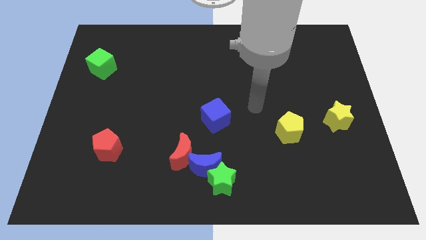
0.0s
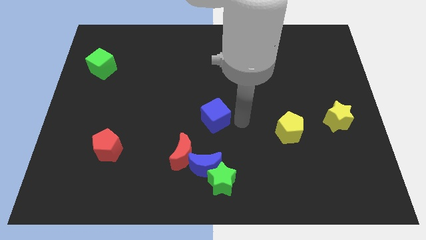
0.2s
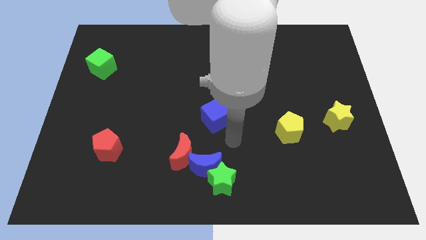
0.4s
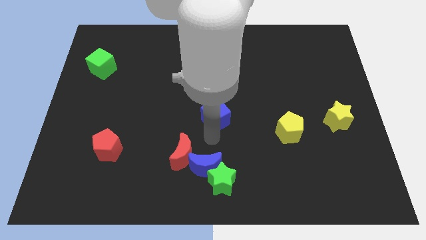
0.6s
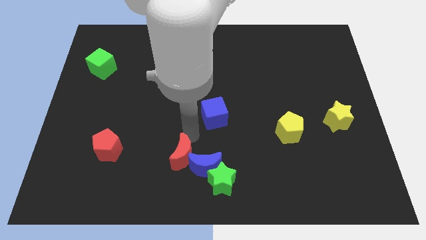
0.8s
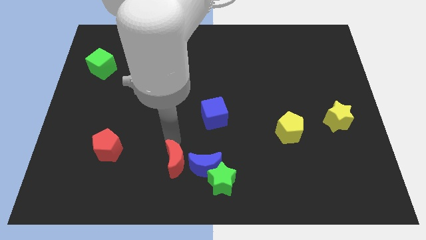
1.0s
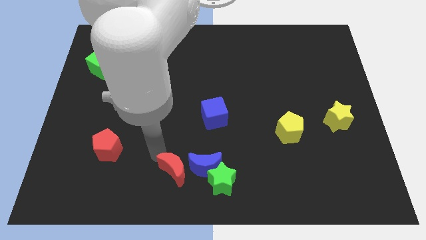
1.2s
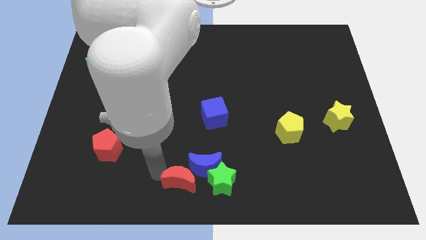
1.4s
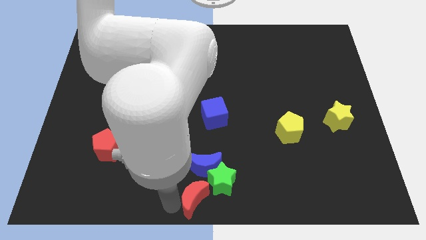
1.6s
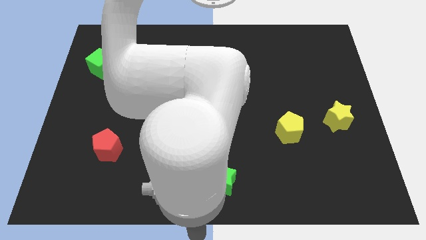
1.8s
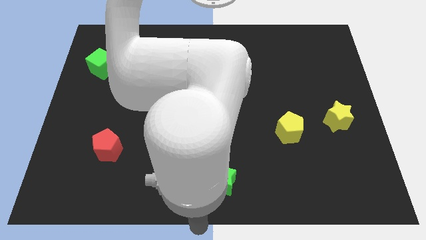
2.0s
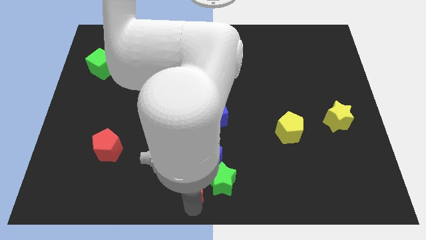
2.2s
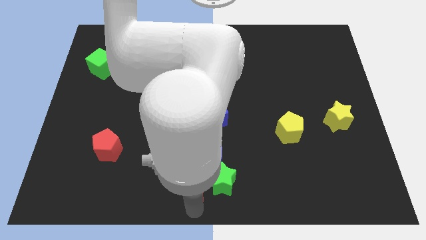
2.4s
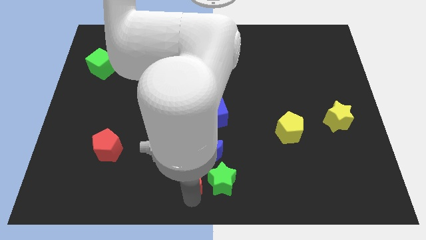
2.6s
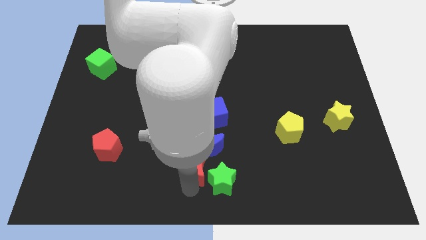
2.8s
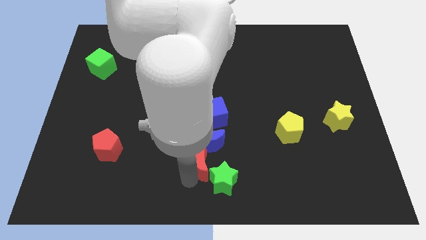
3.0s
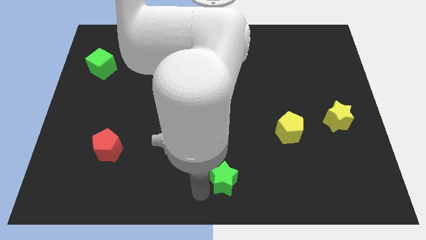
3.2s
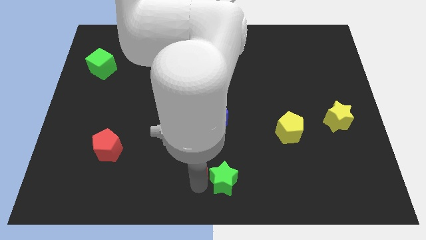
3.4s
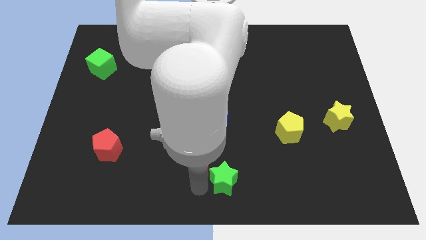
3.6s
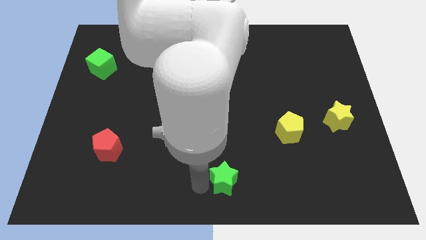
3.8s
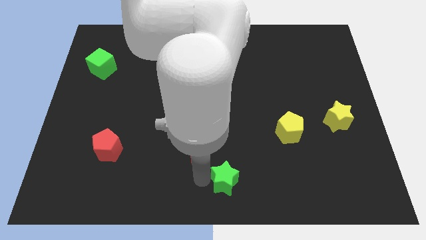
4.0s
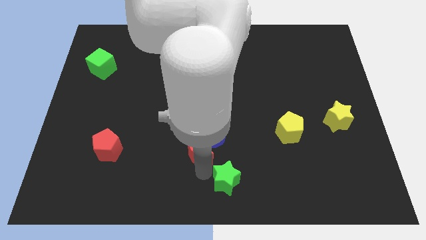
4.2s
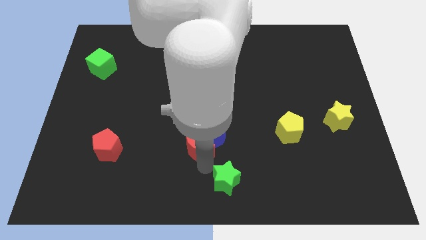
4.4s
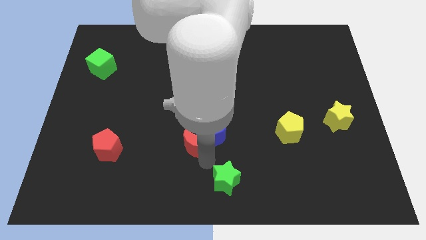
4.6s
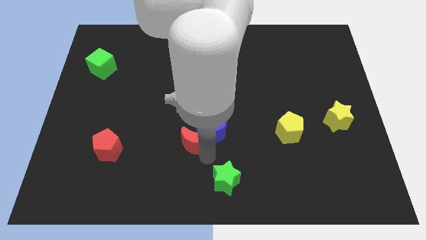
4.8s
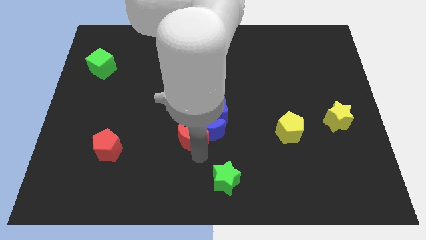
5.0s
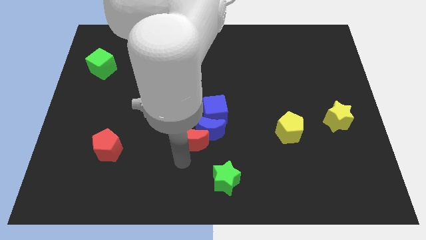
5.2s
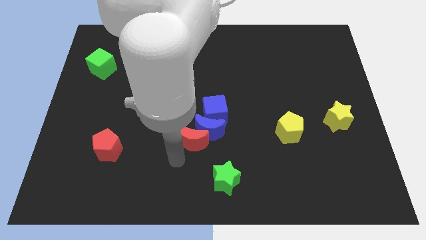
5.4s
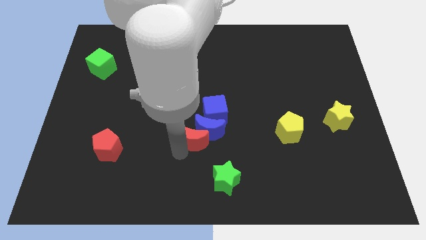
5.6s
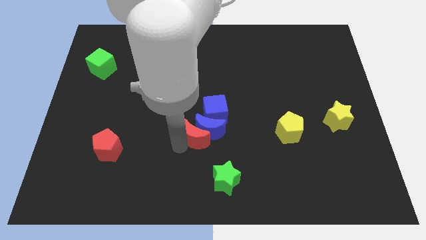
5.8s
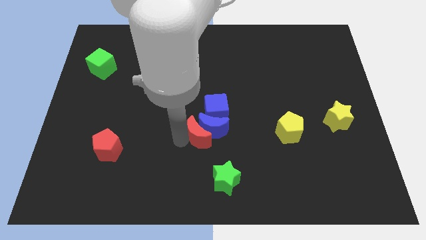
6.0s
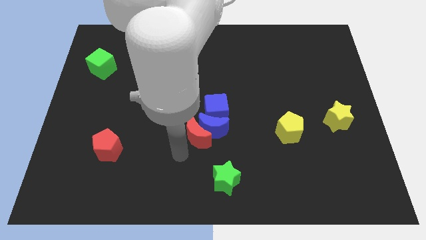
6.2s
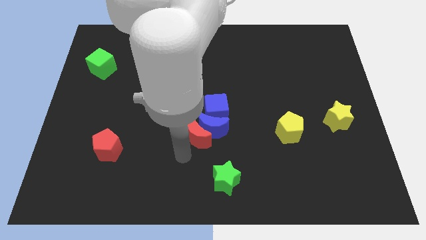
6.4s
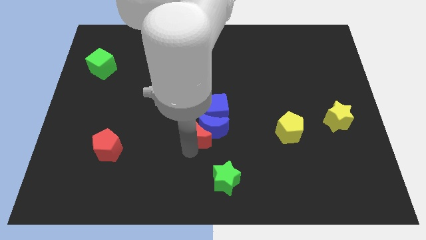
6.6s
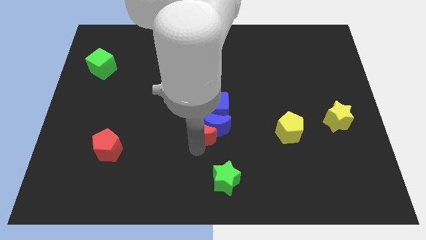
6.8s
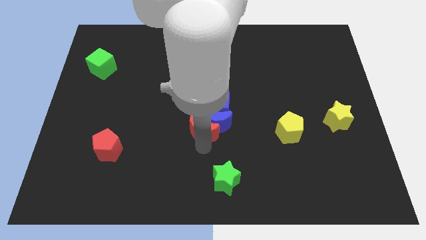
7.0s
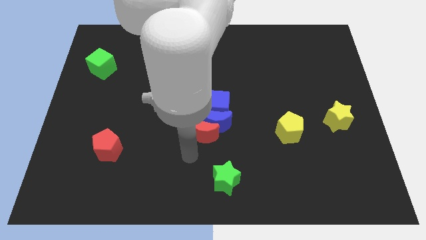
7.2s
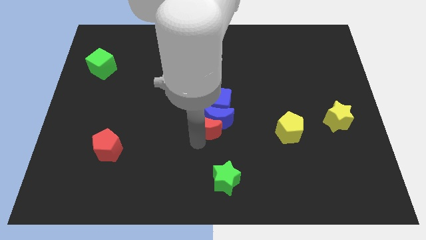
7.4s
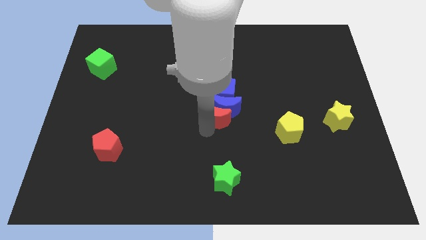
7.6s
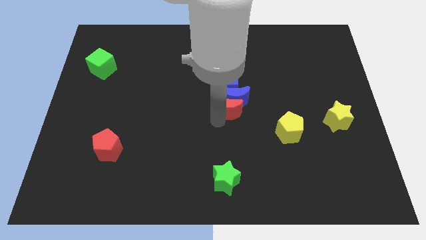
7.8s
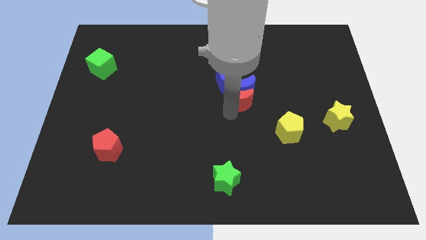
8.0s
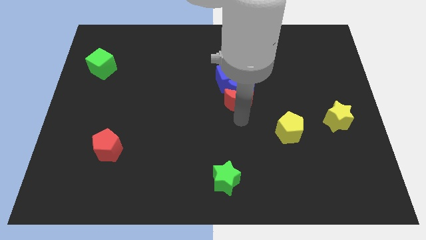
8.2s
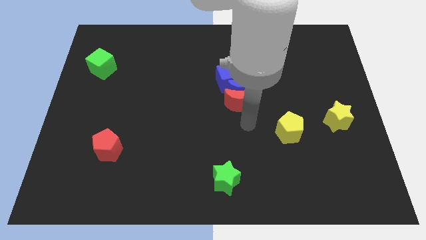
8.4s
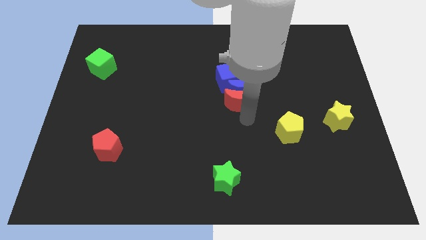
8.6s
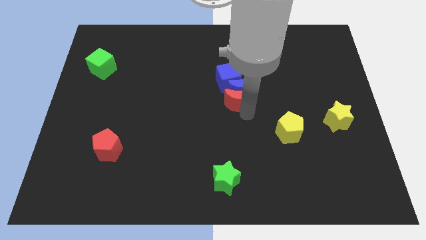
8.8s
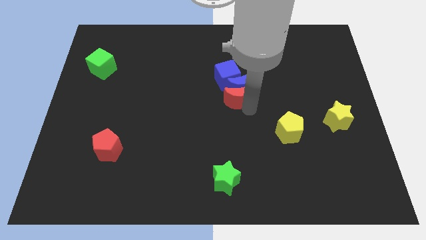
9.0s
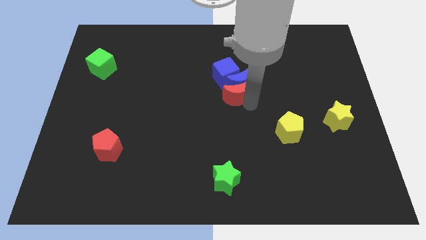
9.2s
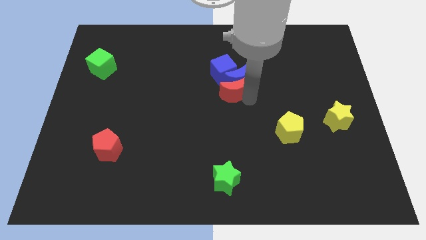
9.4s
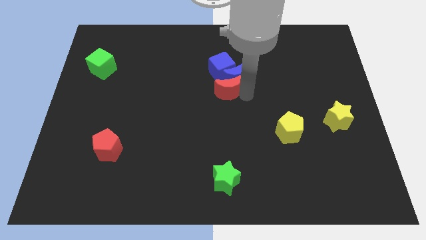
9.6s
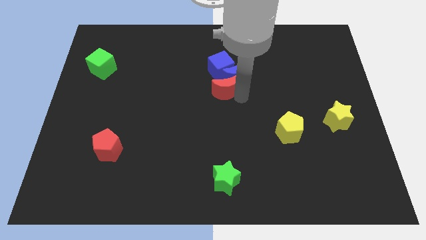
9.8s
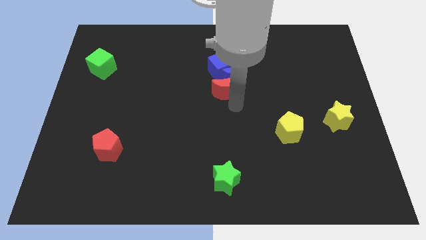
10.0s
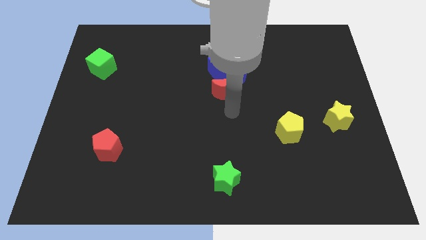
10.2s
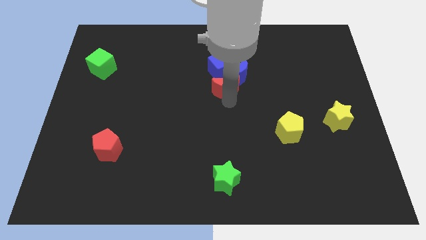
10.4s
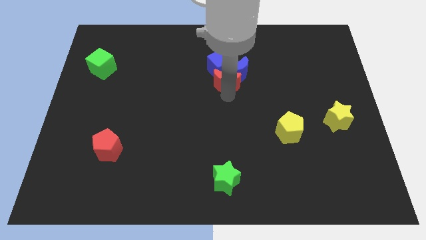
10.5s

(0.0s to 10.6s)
slide the red moon close to the blue cube

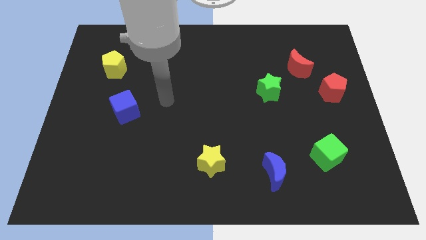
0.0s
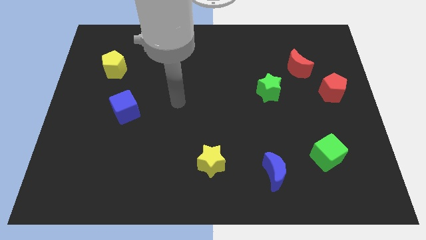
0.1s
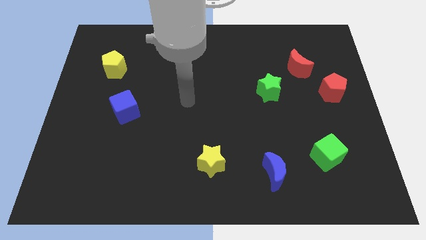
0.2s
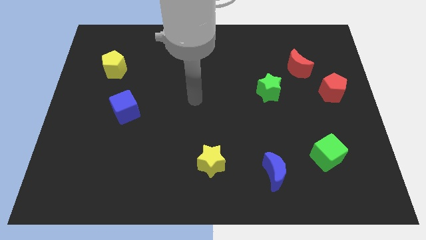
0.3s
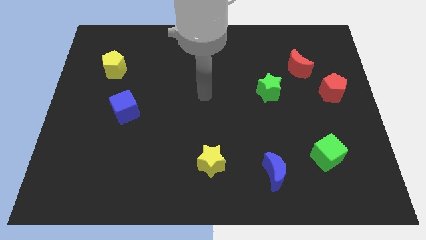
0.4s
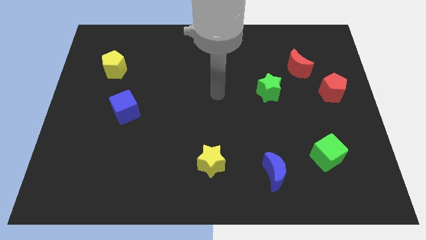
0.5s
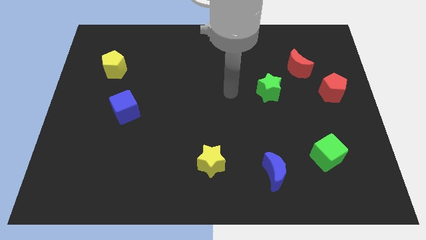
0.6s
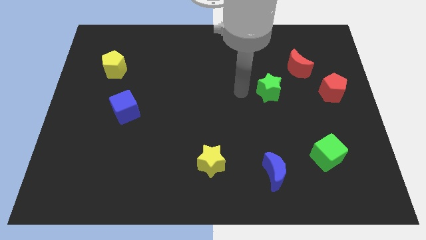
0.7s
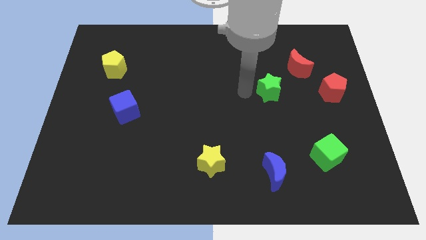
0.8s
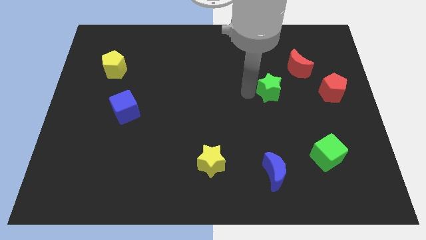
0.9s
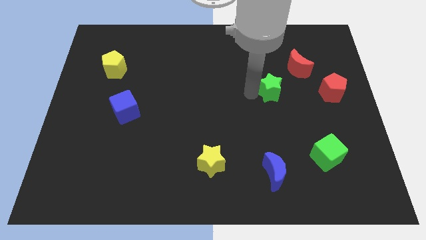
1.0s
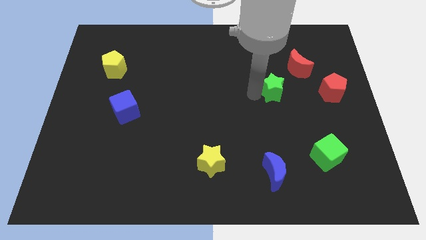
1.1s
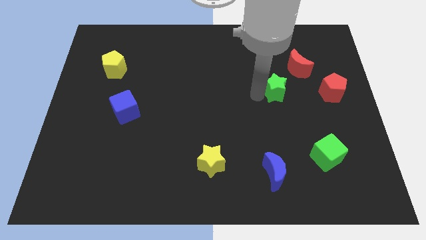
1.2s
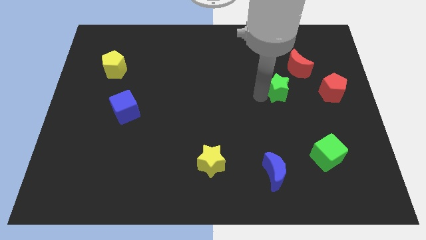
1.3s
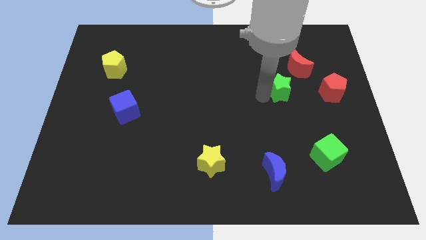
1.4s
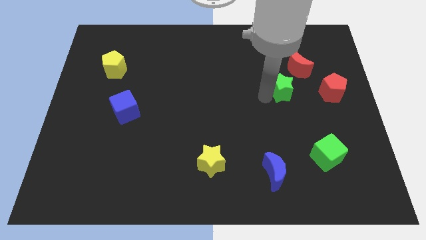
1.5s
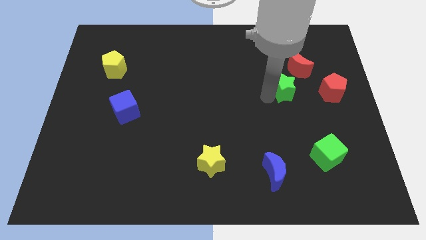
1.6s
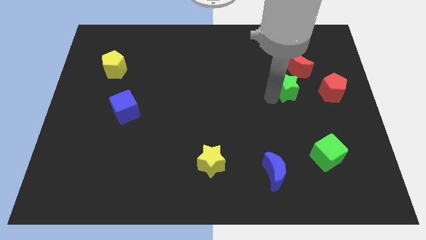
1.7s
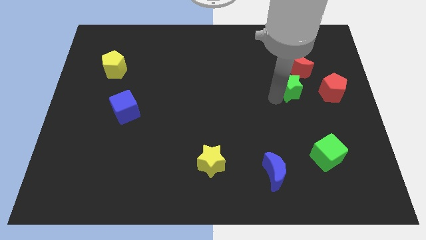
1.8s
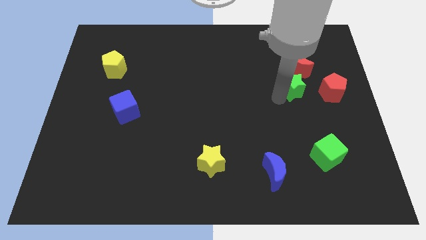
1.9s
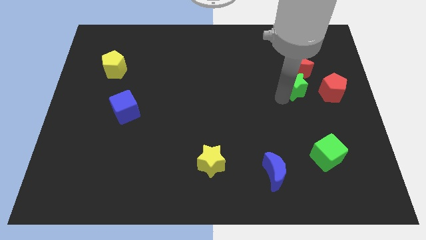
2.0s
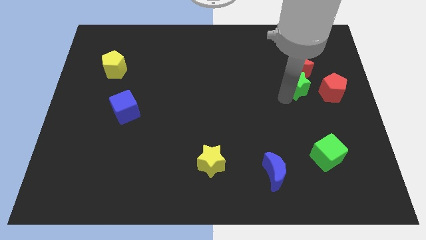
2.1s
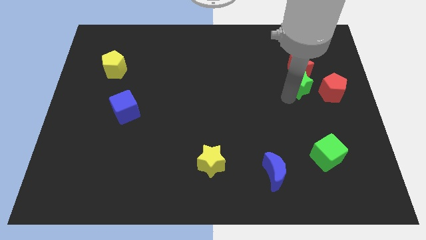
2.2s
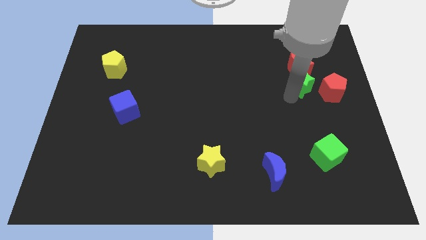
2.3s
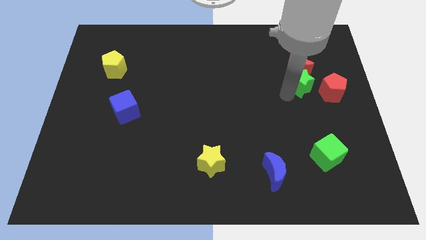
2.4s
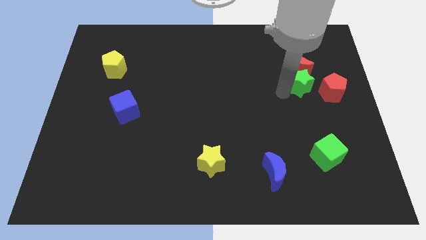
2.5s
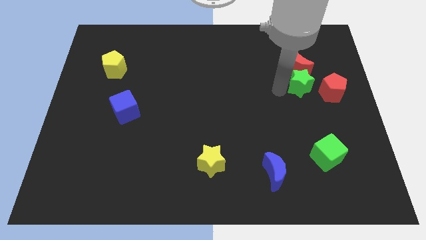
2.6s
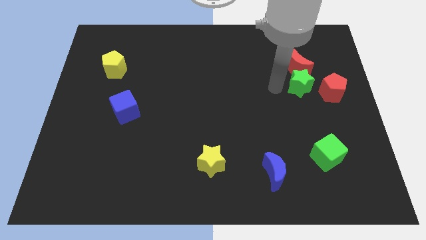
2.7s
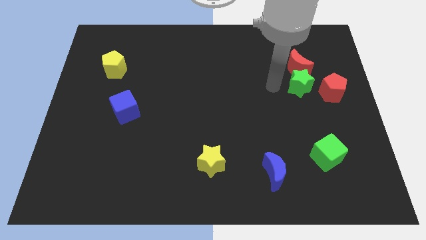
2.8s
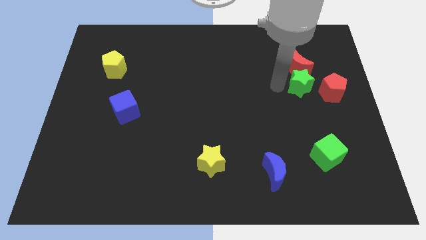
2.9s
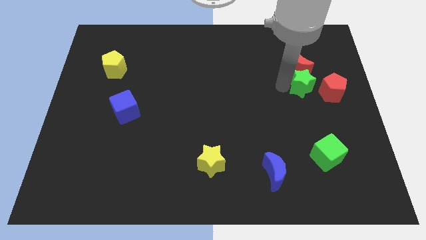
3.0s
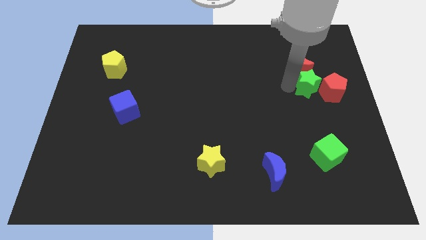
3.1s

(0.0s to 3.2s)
move the green star next to the red pentagon
